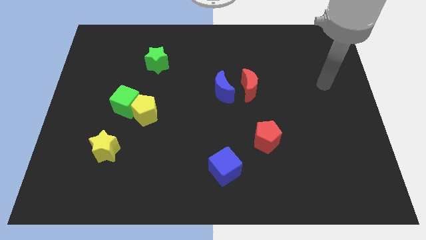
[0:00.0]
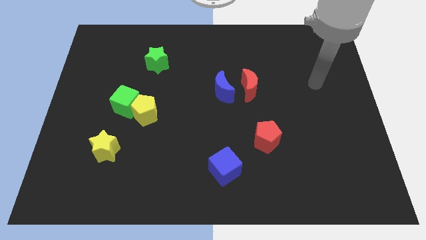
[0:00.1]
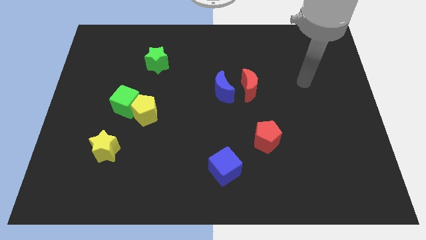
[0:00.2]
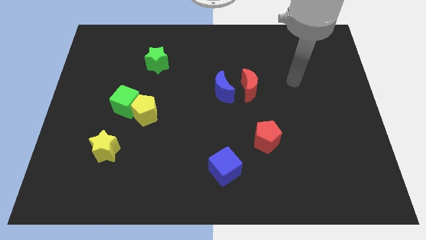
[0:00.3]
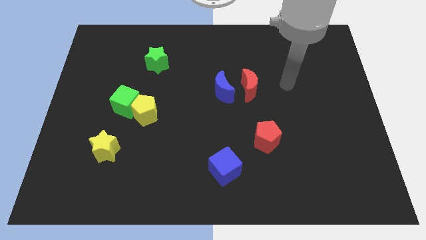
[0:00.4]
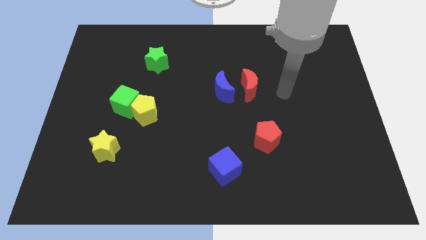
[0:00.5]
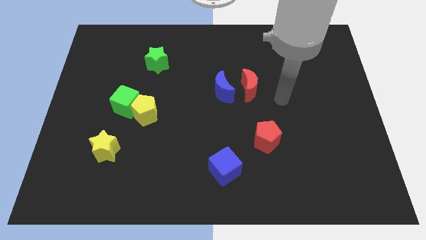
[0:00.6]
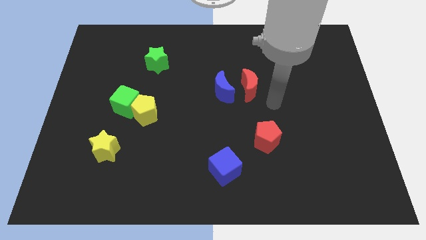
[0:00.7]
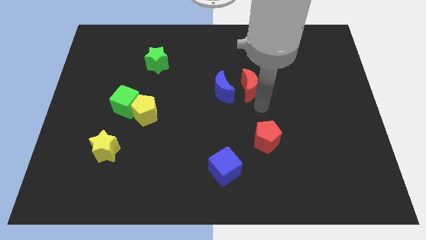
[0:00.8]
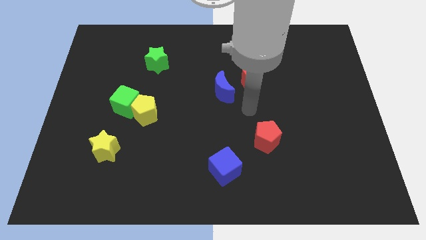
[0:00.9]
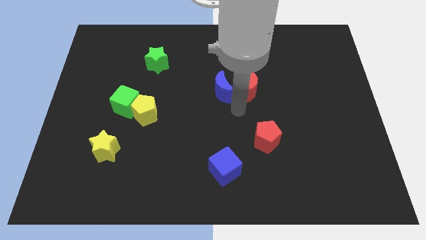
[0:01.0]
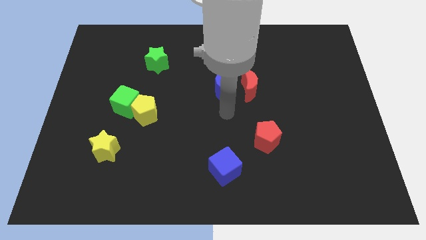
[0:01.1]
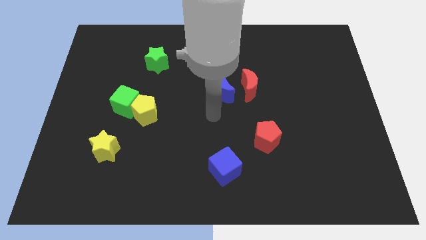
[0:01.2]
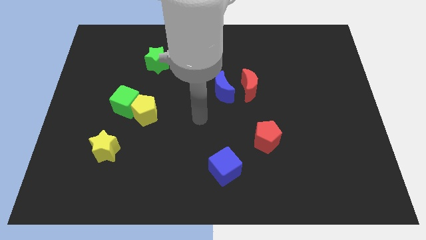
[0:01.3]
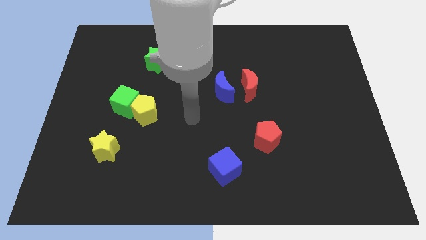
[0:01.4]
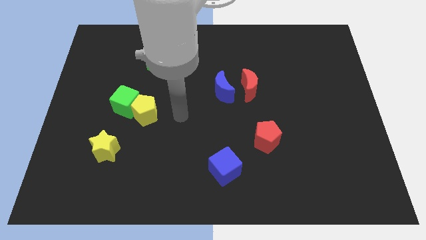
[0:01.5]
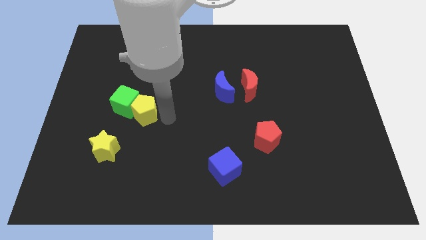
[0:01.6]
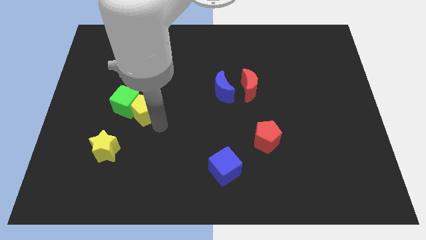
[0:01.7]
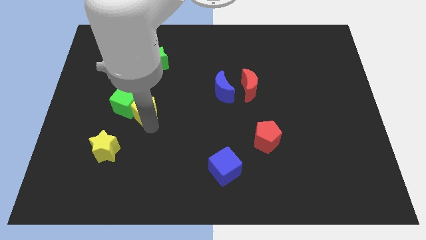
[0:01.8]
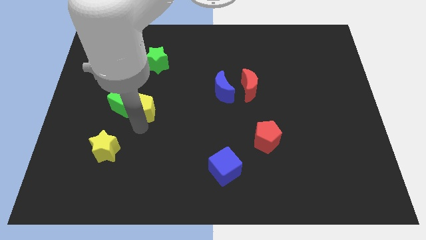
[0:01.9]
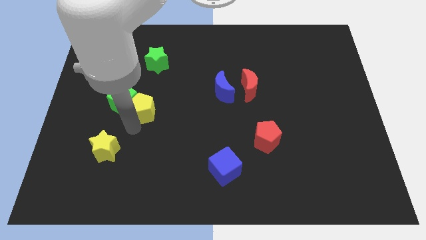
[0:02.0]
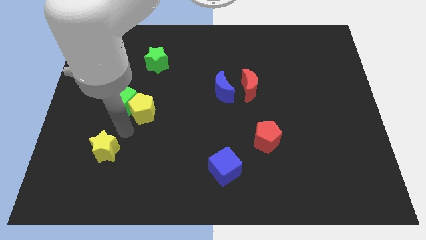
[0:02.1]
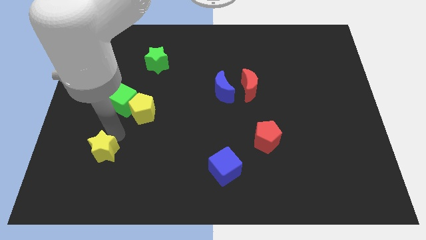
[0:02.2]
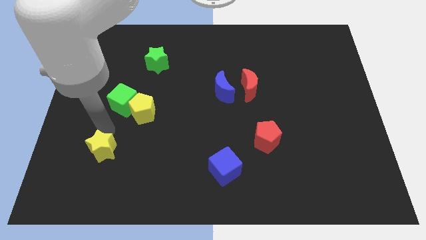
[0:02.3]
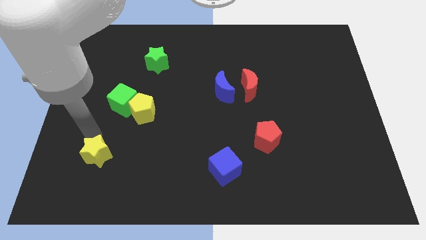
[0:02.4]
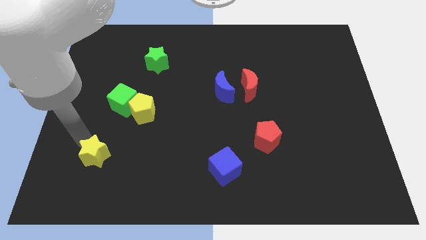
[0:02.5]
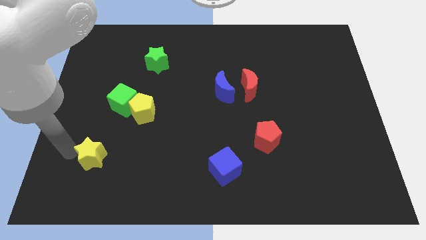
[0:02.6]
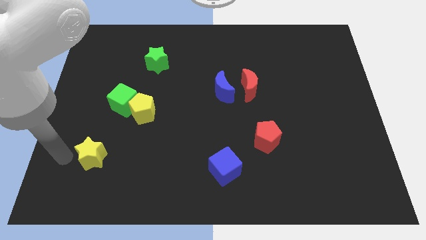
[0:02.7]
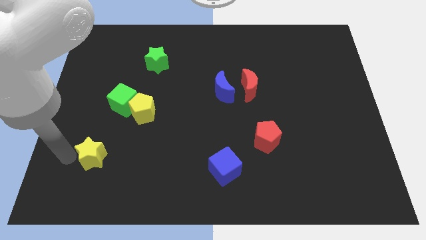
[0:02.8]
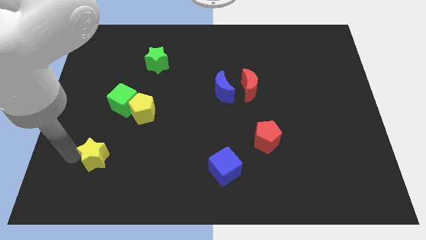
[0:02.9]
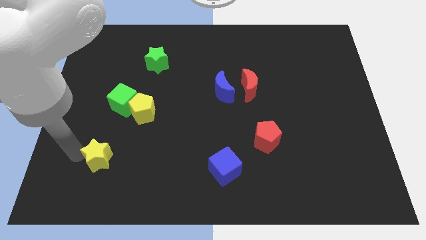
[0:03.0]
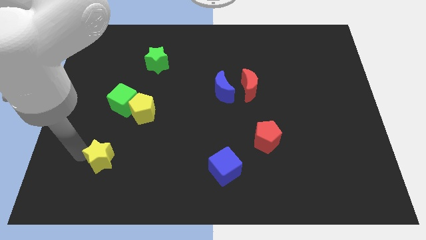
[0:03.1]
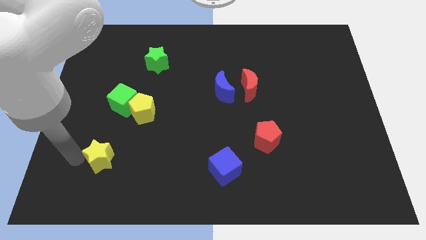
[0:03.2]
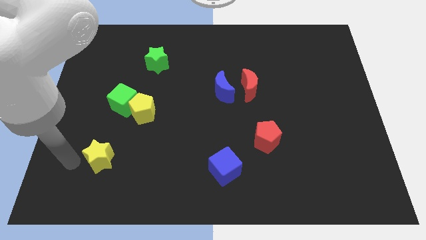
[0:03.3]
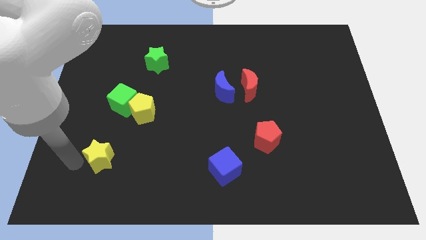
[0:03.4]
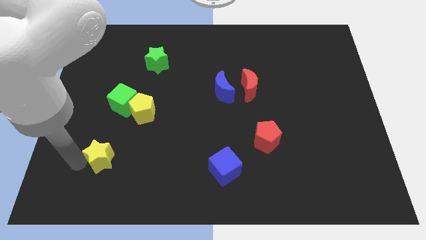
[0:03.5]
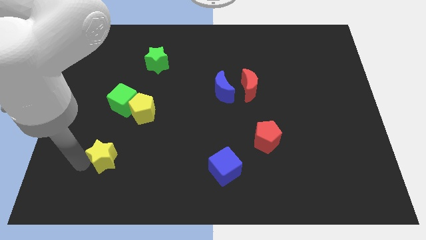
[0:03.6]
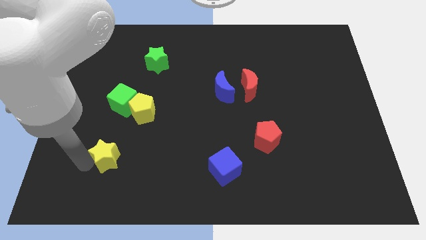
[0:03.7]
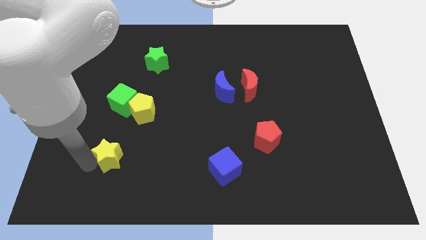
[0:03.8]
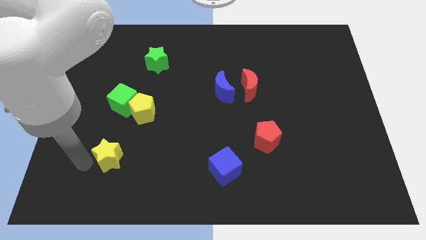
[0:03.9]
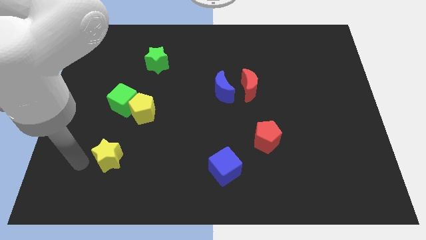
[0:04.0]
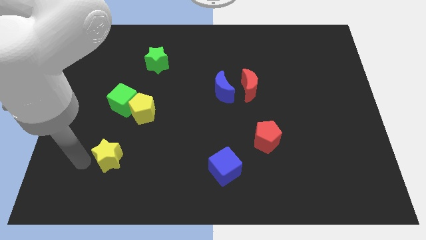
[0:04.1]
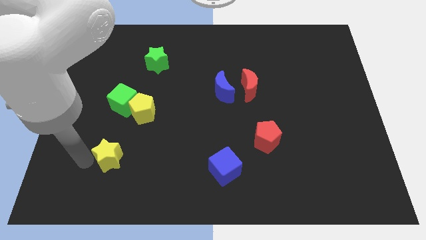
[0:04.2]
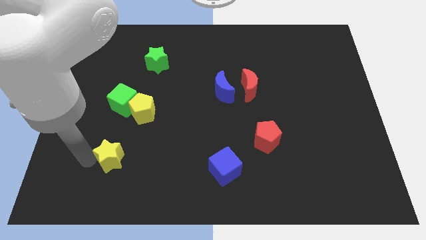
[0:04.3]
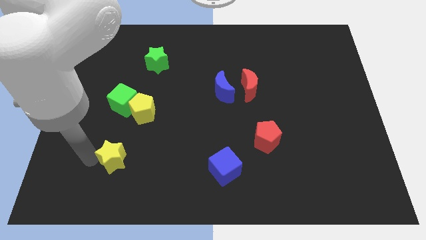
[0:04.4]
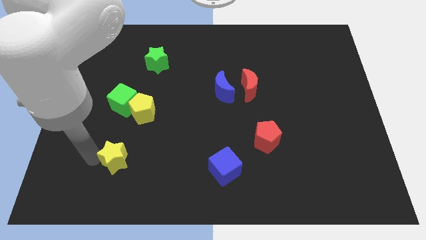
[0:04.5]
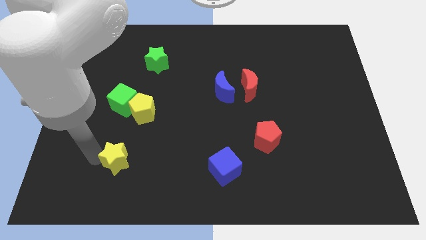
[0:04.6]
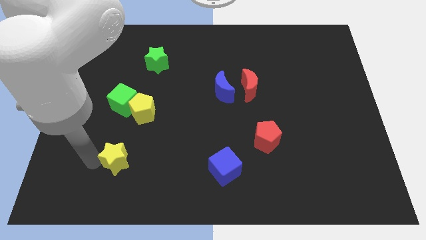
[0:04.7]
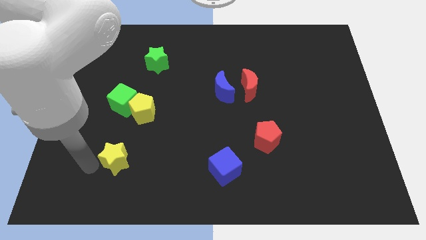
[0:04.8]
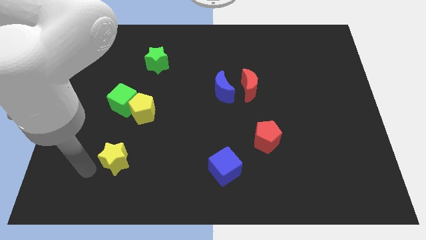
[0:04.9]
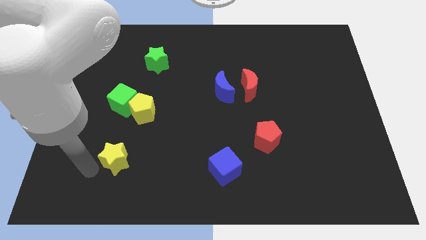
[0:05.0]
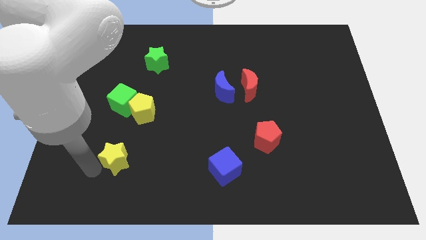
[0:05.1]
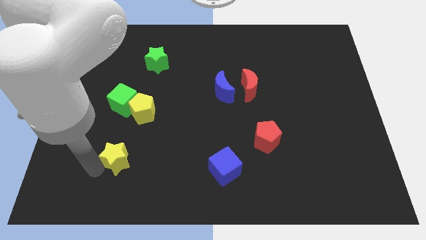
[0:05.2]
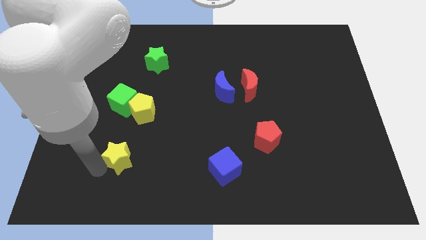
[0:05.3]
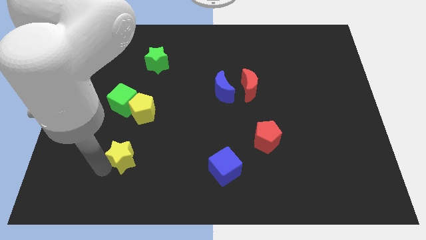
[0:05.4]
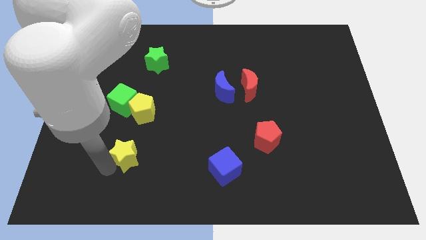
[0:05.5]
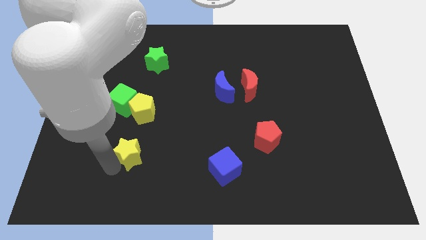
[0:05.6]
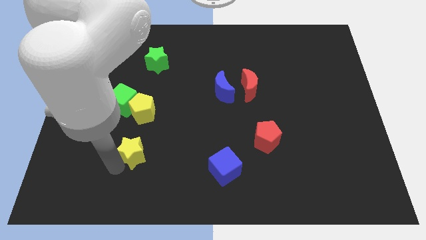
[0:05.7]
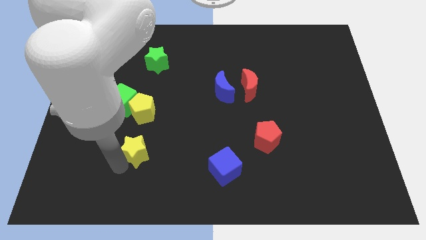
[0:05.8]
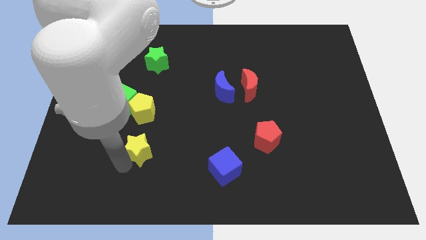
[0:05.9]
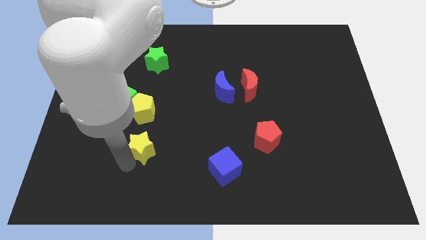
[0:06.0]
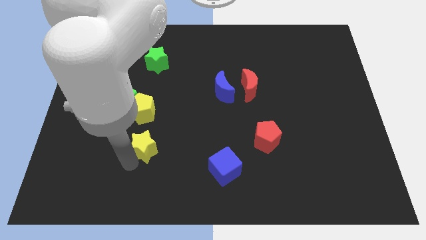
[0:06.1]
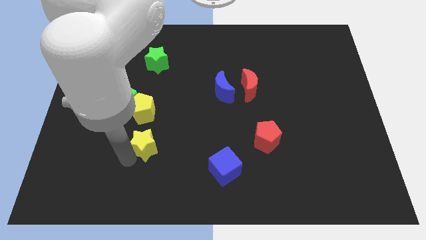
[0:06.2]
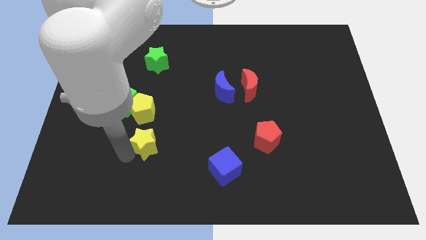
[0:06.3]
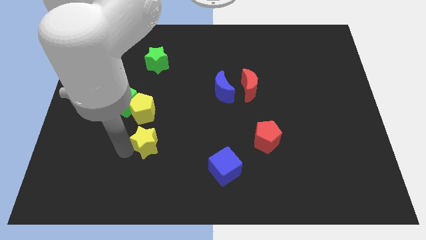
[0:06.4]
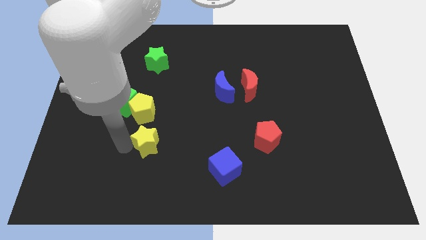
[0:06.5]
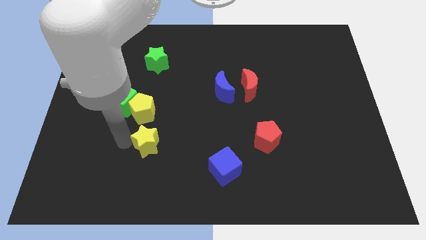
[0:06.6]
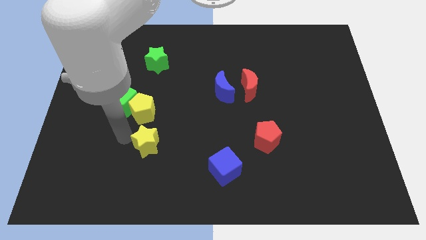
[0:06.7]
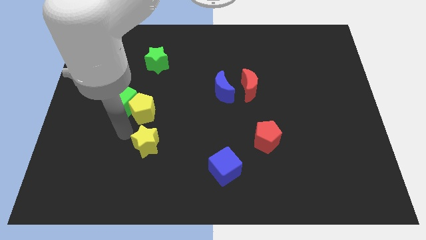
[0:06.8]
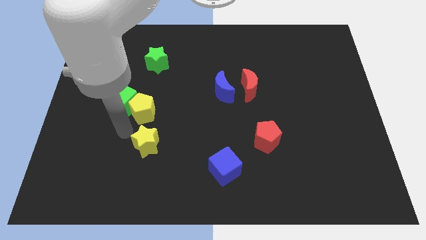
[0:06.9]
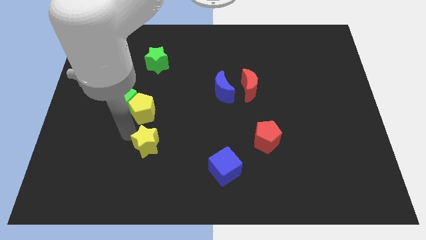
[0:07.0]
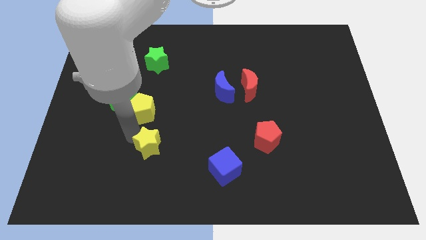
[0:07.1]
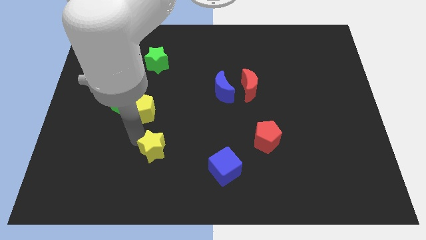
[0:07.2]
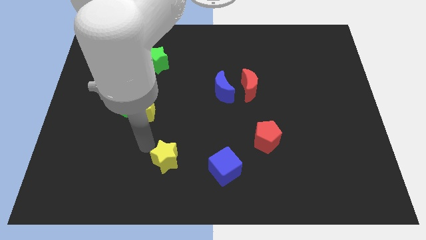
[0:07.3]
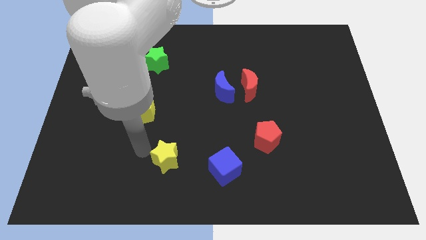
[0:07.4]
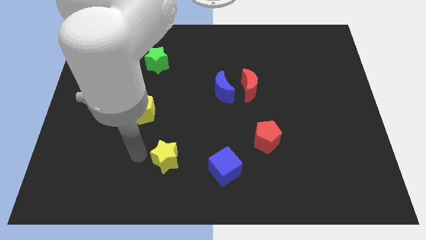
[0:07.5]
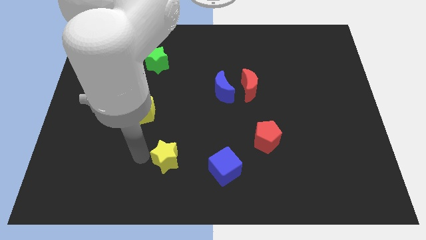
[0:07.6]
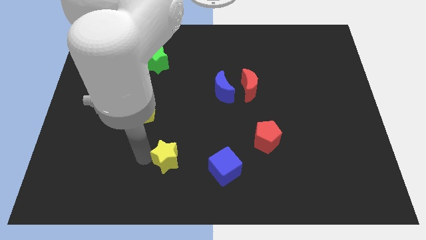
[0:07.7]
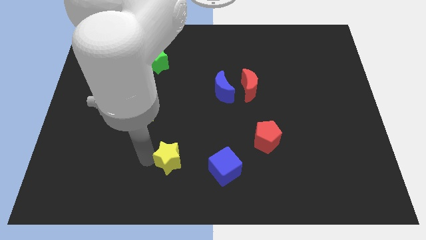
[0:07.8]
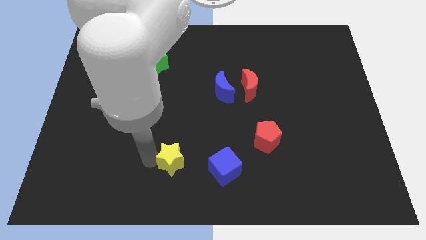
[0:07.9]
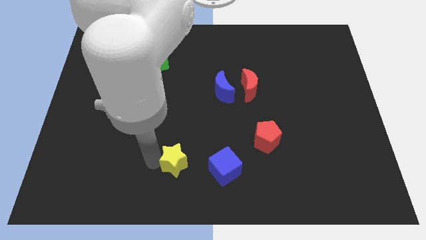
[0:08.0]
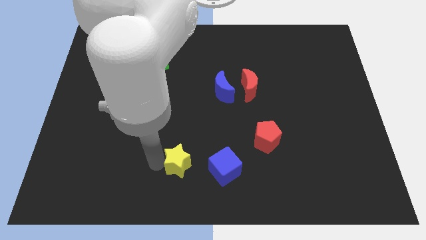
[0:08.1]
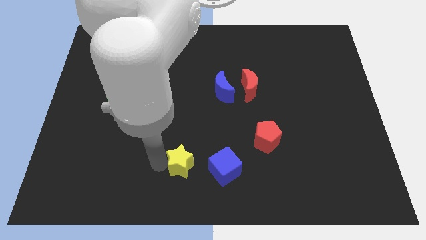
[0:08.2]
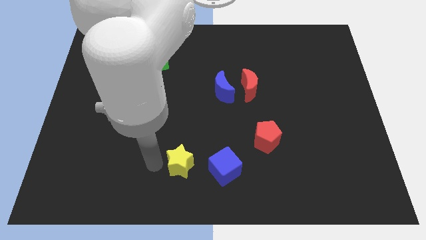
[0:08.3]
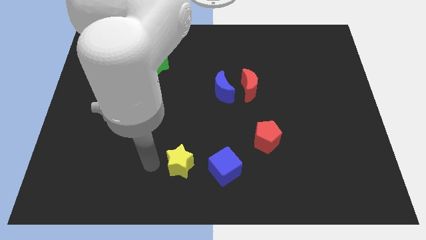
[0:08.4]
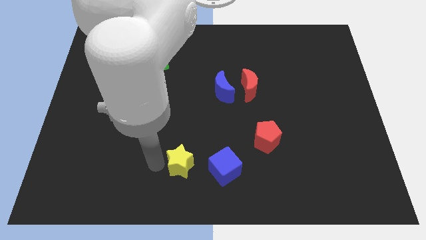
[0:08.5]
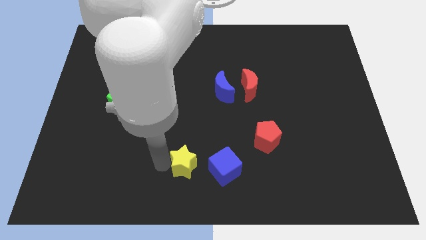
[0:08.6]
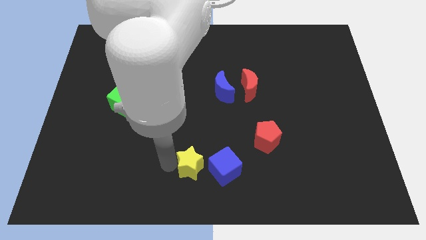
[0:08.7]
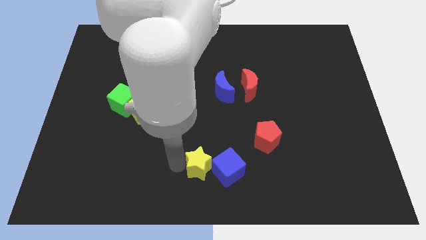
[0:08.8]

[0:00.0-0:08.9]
push the yellow star to the blue cube
